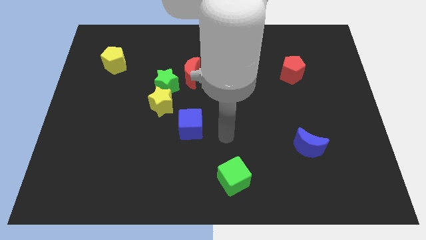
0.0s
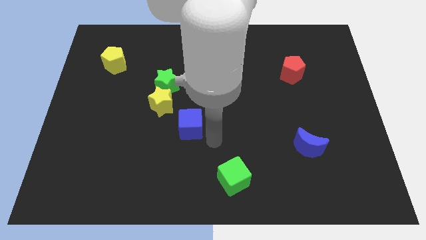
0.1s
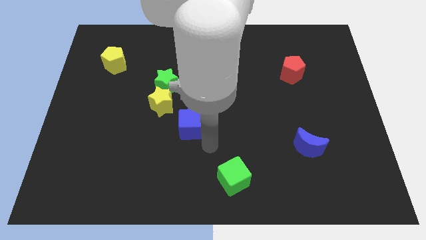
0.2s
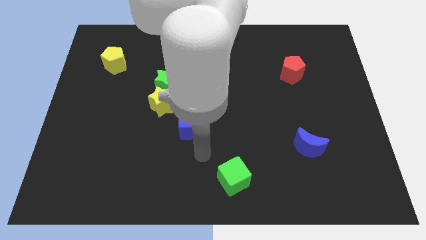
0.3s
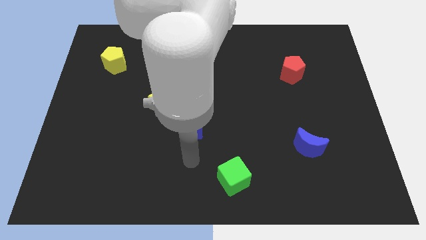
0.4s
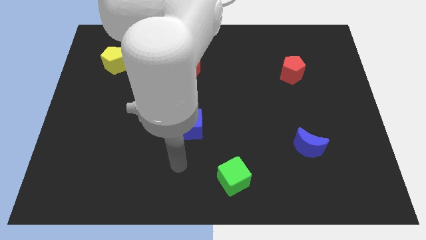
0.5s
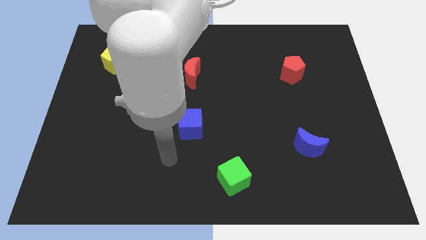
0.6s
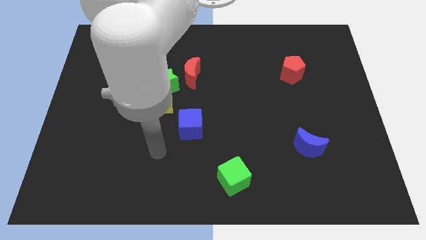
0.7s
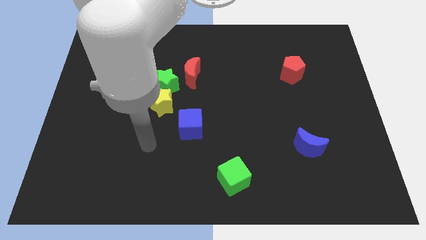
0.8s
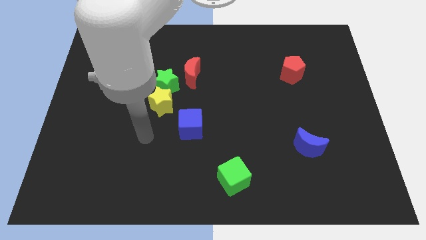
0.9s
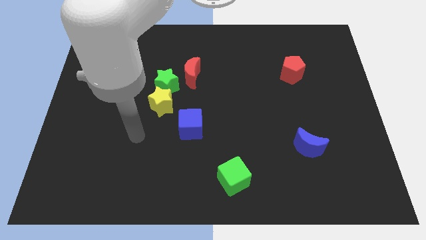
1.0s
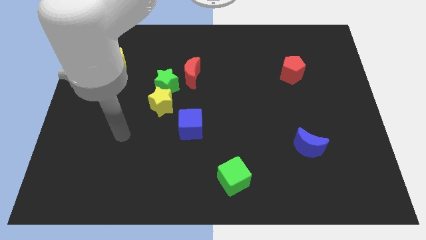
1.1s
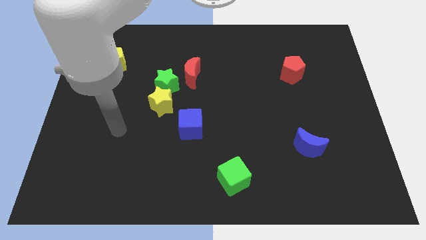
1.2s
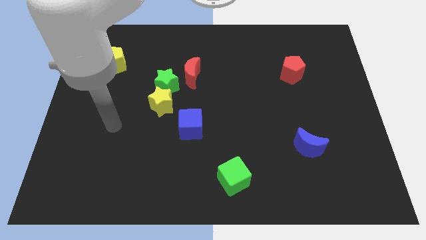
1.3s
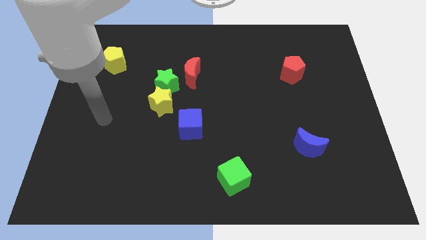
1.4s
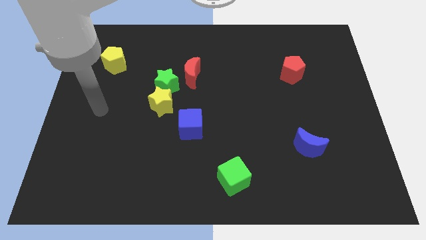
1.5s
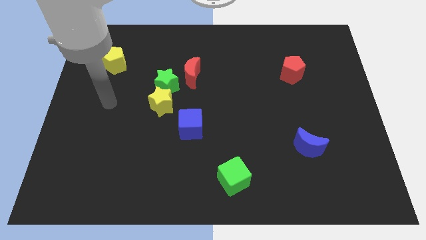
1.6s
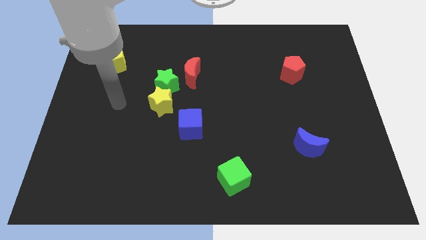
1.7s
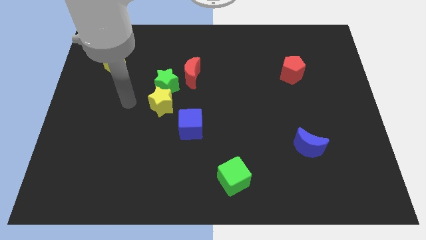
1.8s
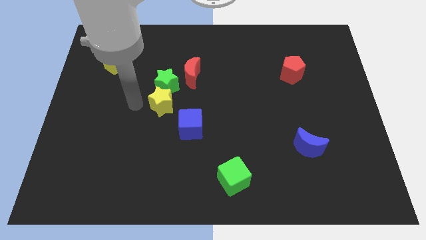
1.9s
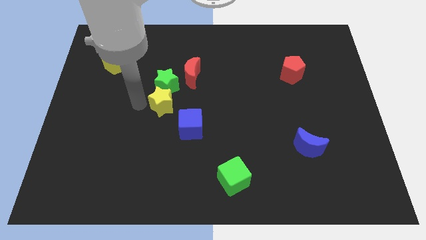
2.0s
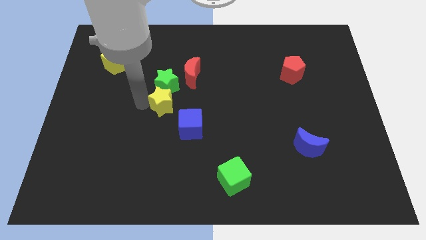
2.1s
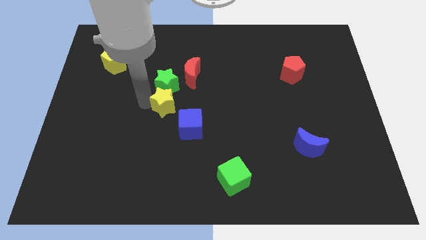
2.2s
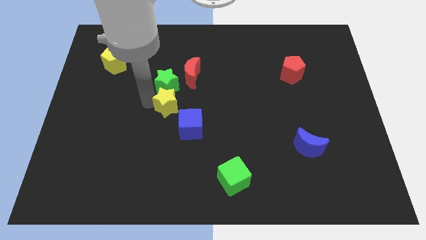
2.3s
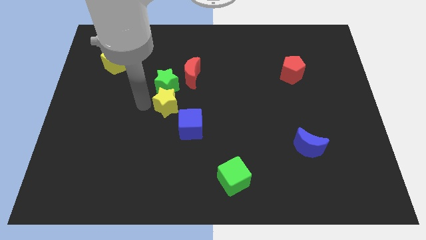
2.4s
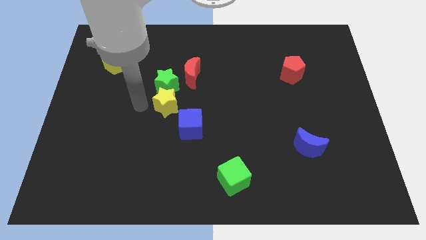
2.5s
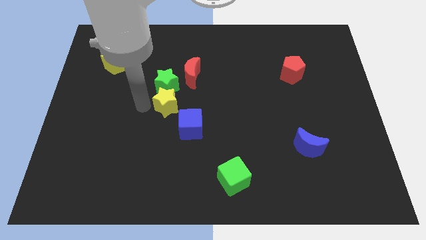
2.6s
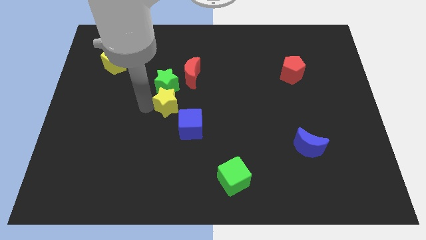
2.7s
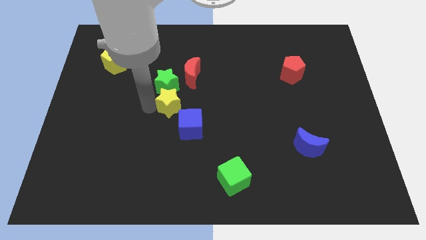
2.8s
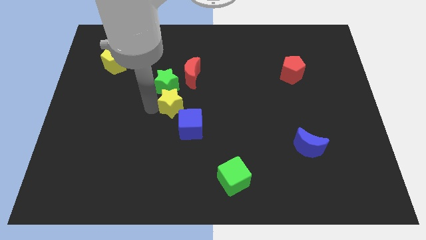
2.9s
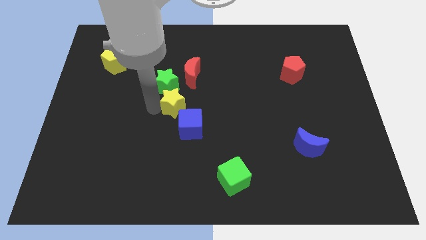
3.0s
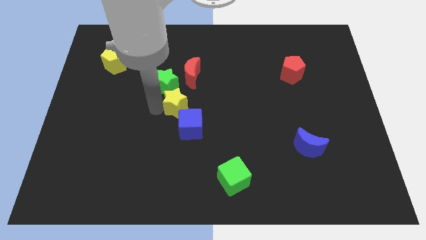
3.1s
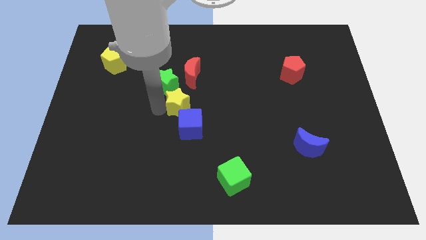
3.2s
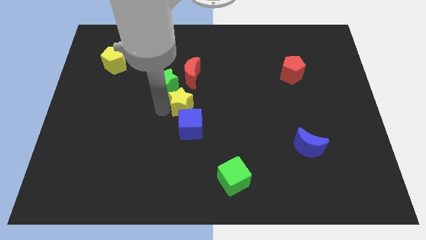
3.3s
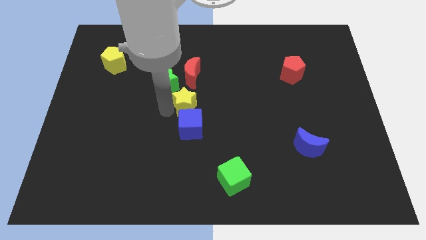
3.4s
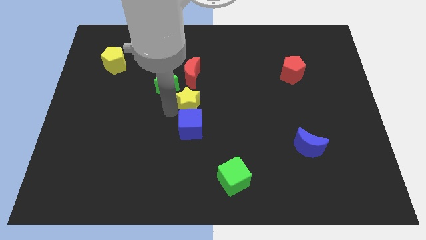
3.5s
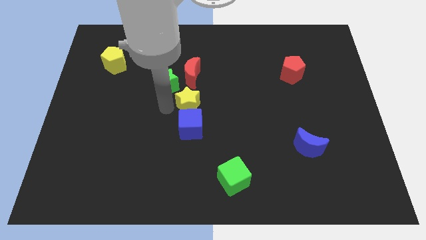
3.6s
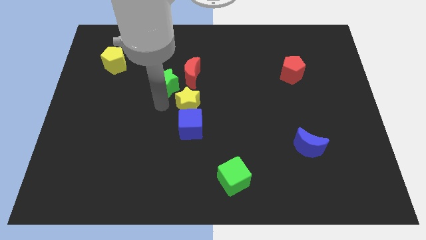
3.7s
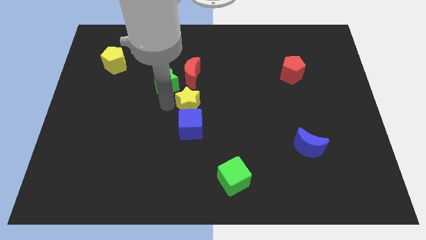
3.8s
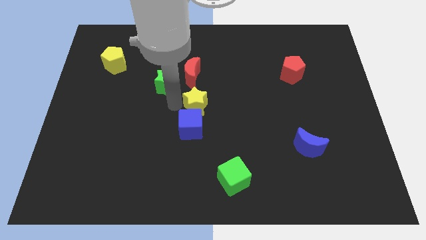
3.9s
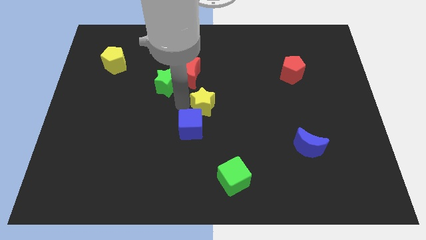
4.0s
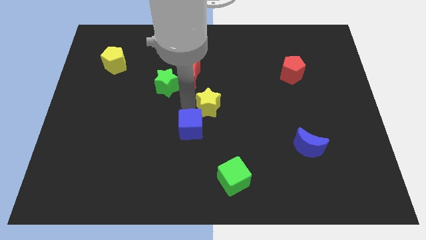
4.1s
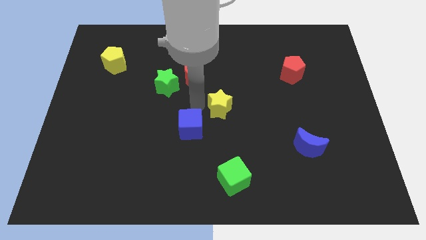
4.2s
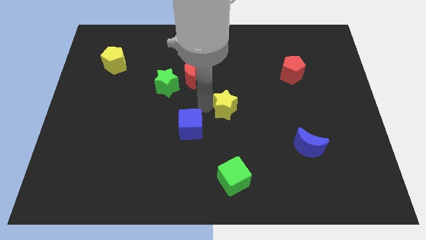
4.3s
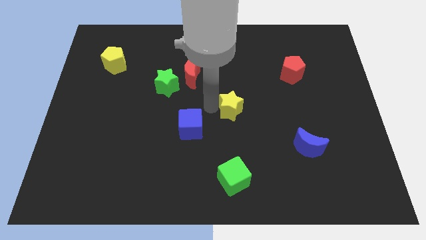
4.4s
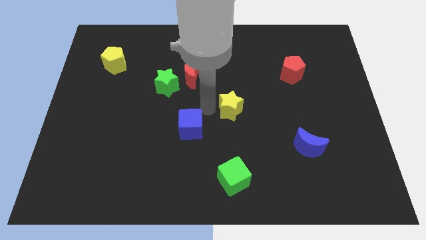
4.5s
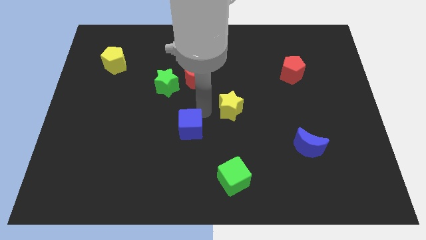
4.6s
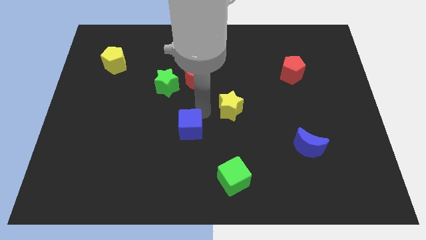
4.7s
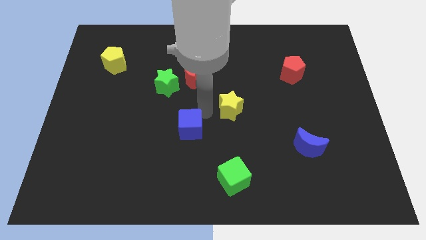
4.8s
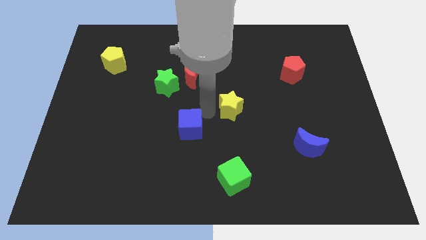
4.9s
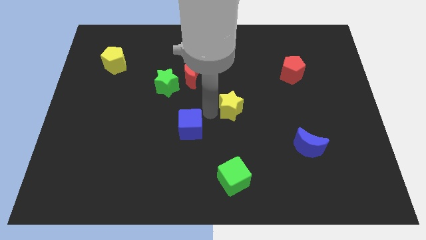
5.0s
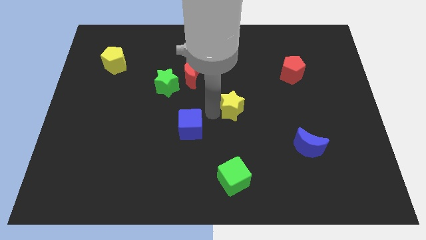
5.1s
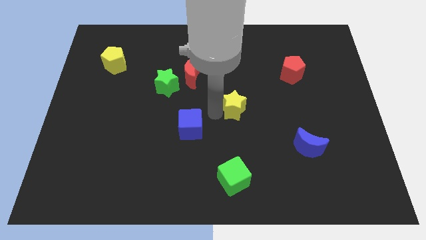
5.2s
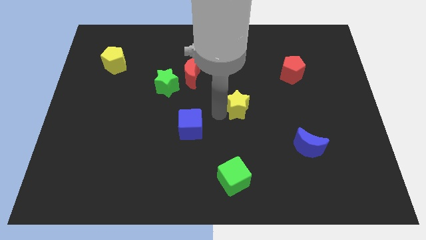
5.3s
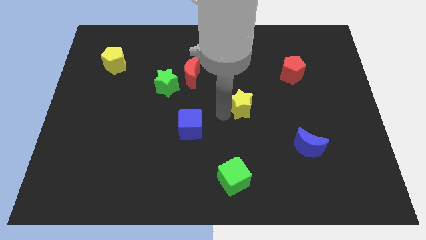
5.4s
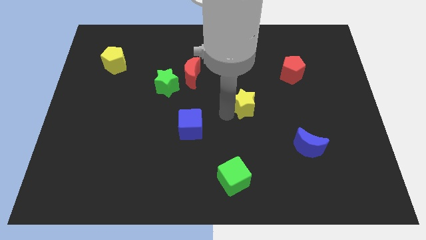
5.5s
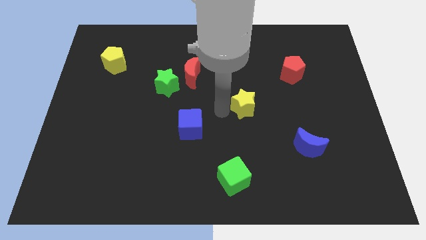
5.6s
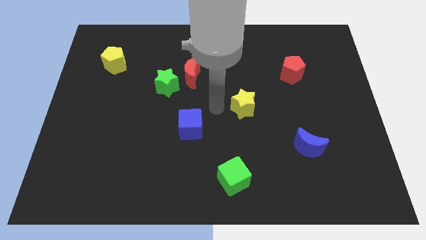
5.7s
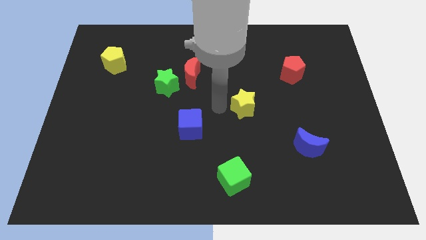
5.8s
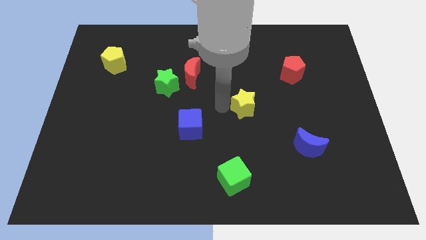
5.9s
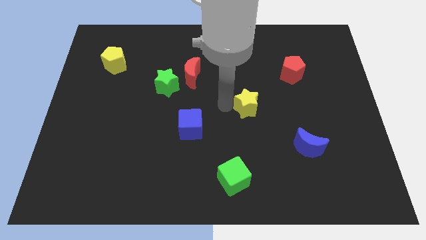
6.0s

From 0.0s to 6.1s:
move the yellow star to the right

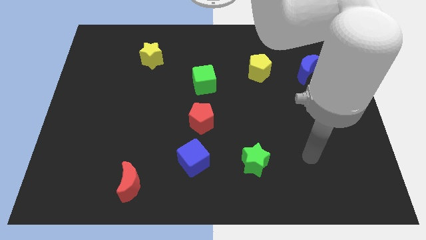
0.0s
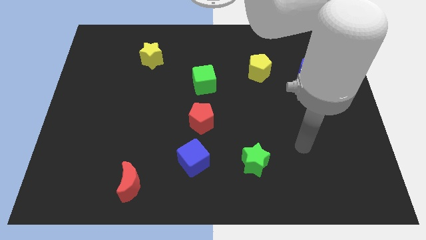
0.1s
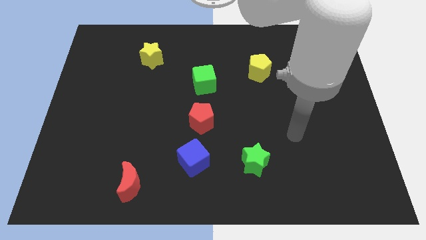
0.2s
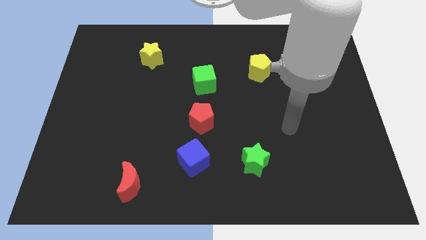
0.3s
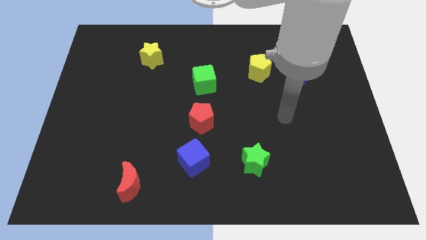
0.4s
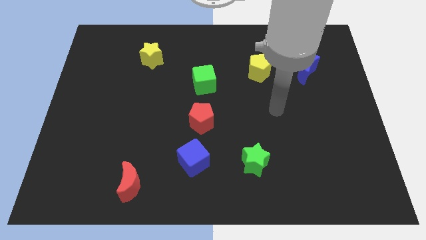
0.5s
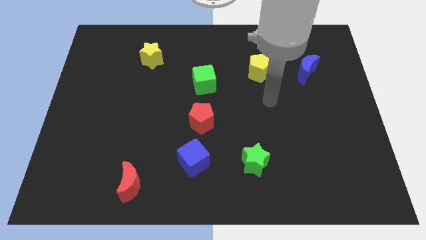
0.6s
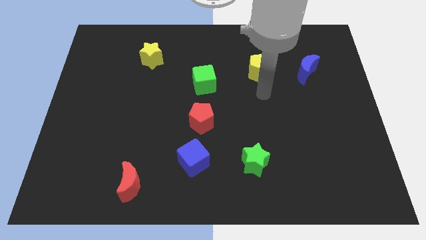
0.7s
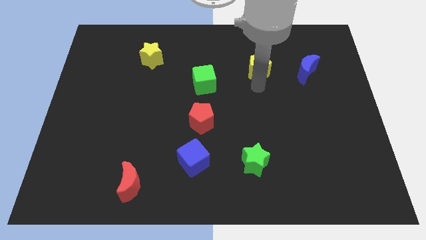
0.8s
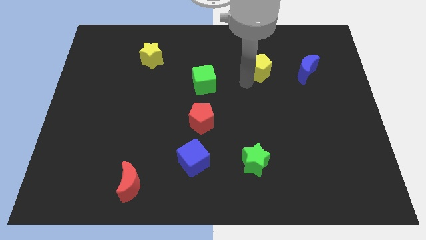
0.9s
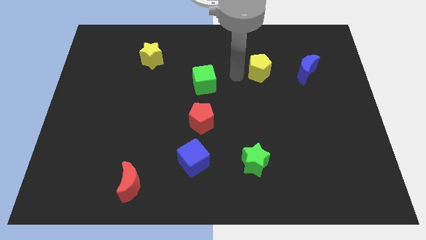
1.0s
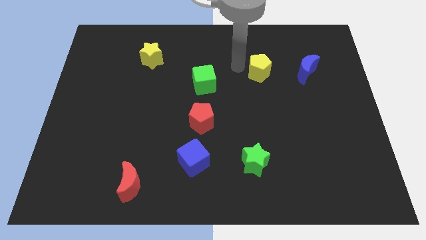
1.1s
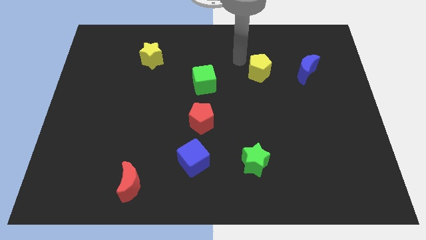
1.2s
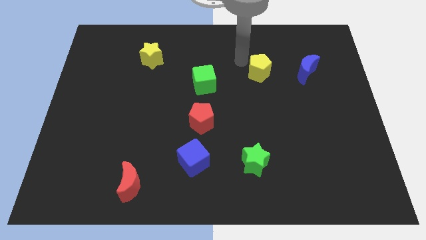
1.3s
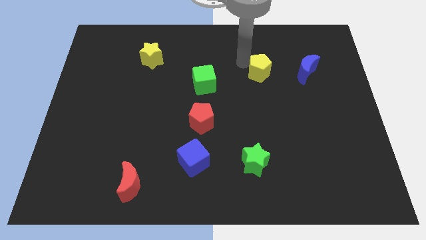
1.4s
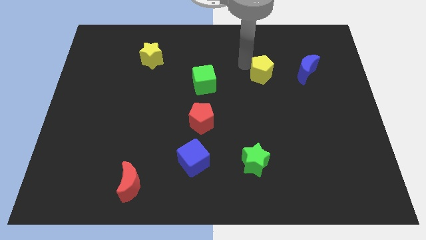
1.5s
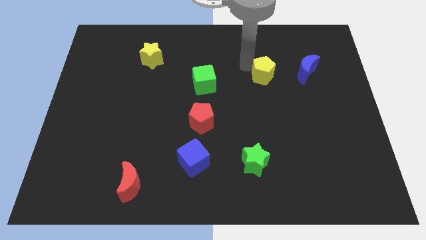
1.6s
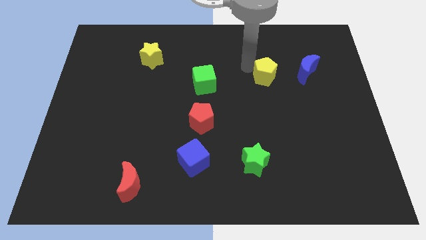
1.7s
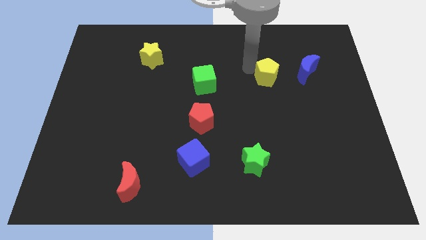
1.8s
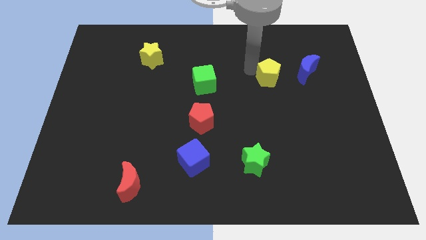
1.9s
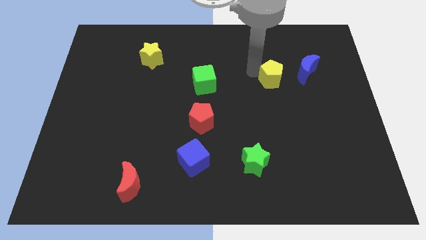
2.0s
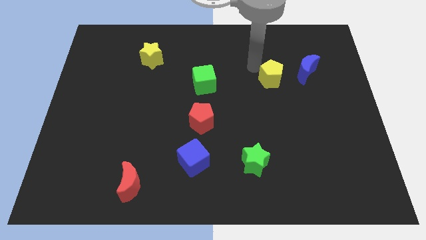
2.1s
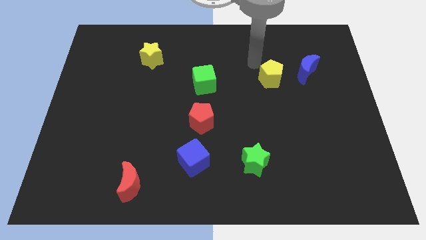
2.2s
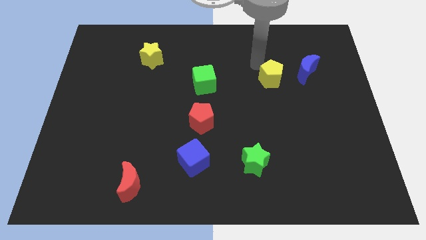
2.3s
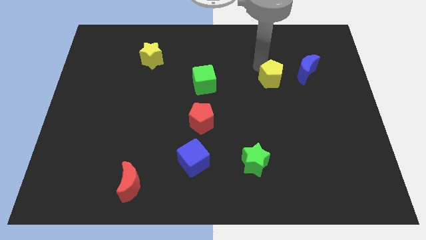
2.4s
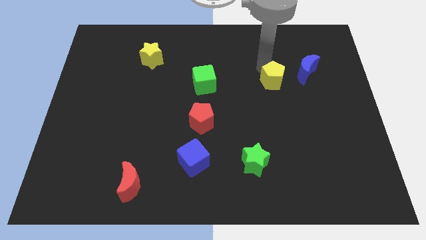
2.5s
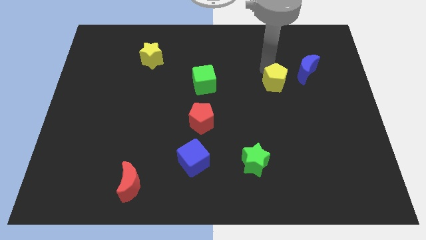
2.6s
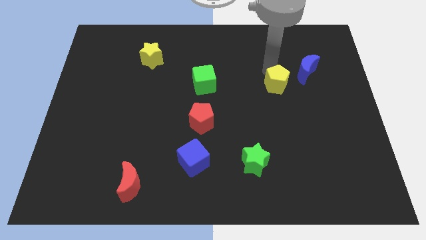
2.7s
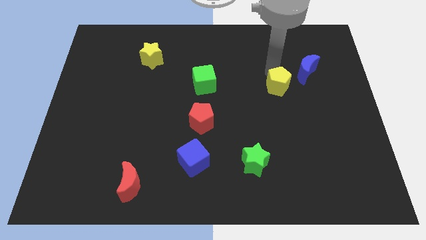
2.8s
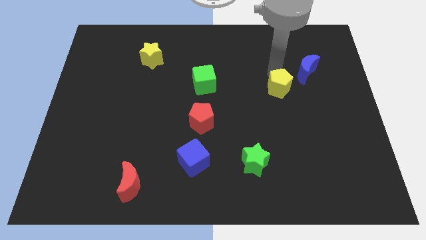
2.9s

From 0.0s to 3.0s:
push the yellow pentagon a bit down and to the right diagonally
